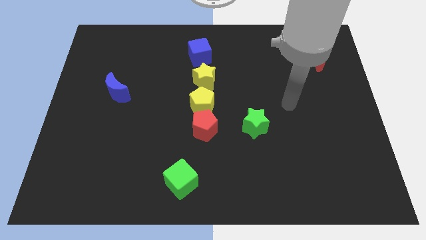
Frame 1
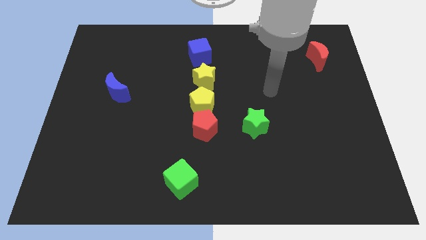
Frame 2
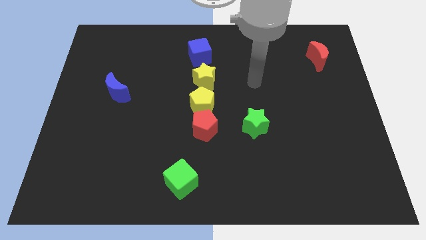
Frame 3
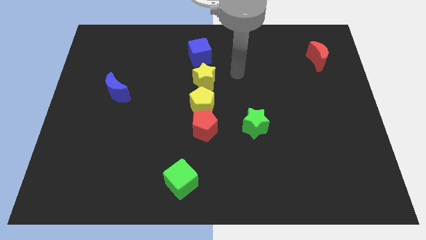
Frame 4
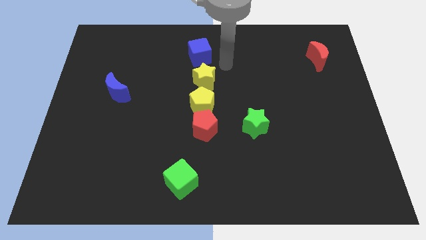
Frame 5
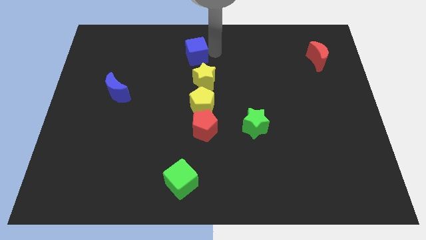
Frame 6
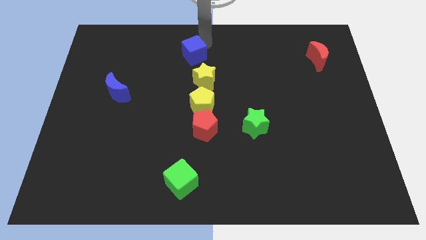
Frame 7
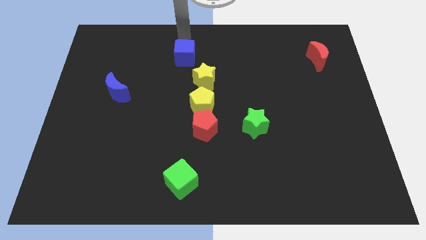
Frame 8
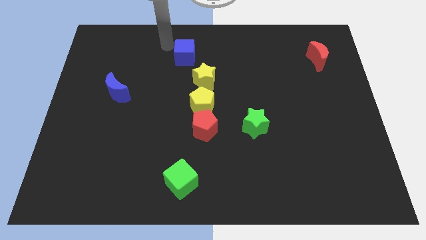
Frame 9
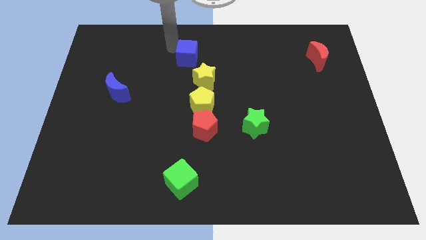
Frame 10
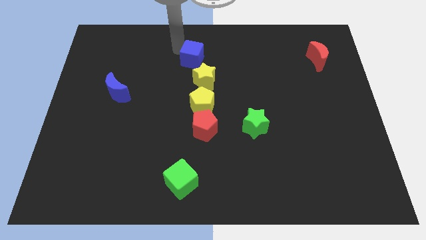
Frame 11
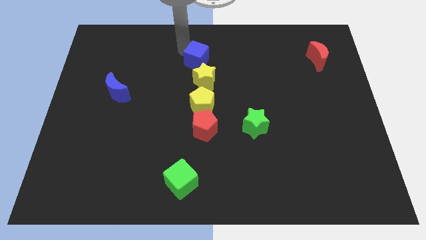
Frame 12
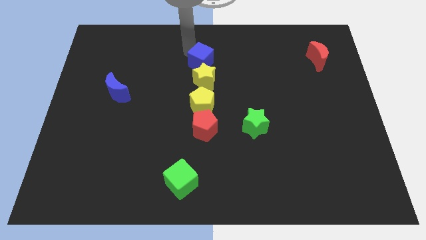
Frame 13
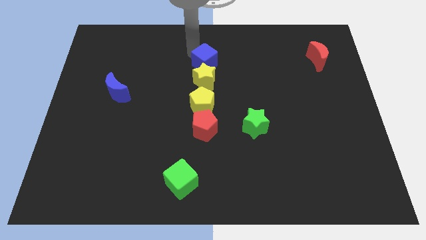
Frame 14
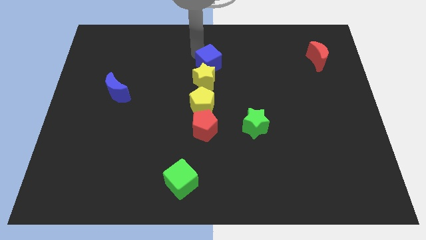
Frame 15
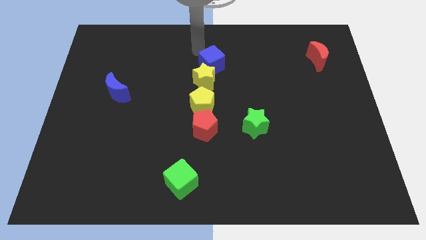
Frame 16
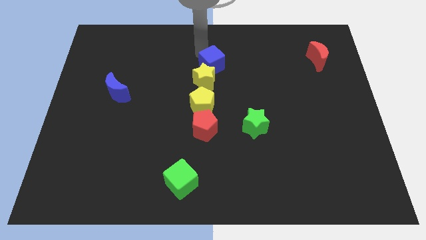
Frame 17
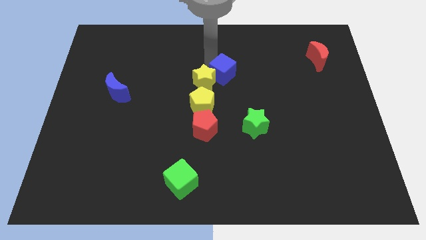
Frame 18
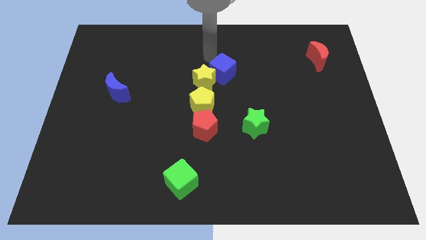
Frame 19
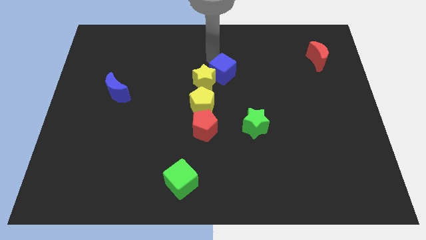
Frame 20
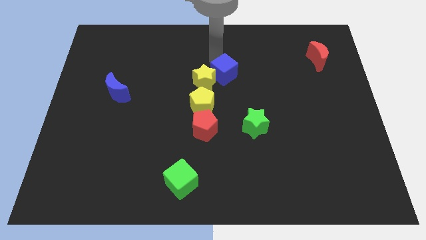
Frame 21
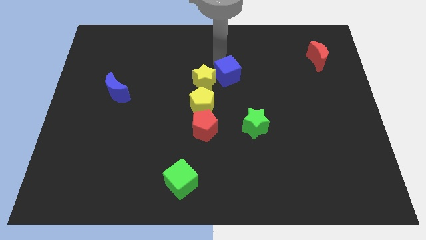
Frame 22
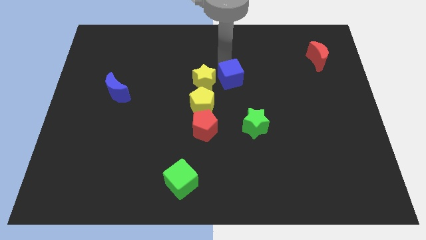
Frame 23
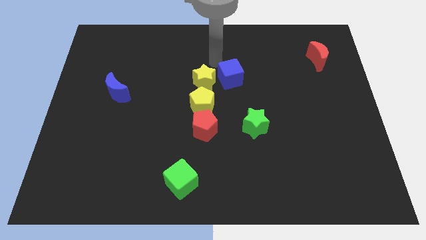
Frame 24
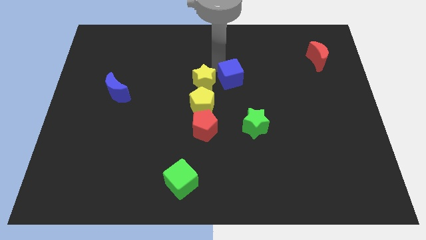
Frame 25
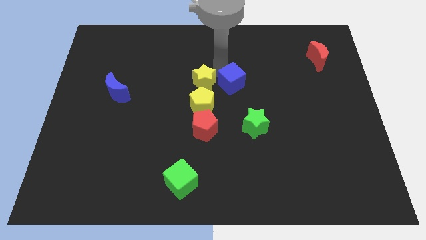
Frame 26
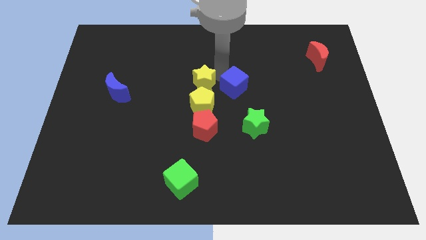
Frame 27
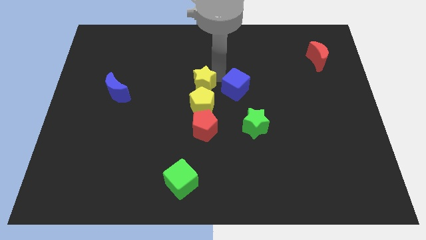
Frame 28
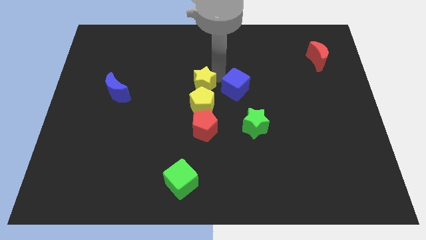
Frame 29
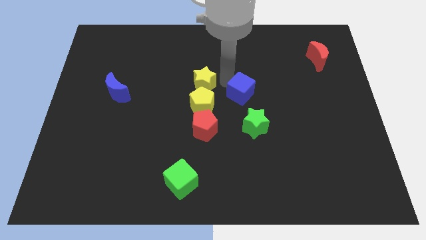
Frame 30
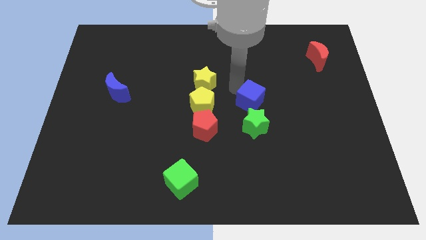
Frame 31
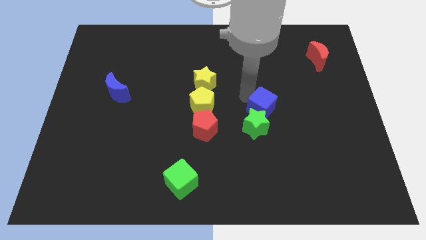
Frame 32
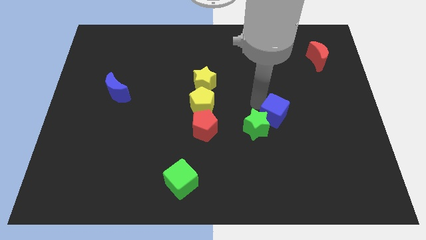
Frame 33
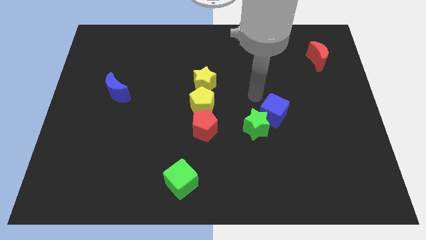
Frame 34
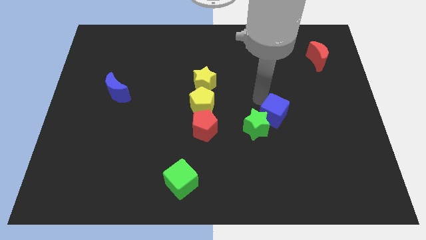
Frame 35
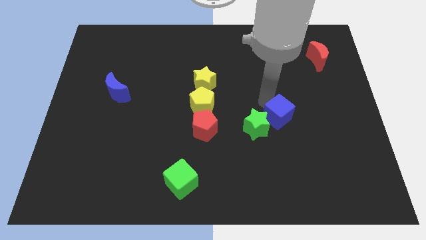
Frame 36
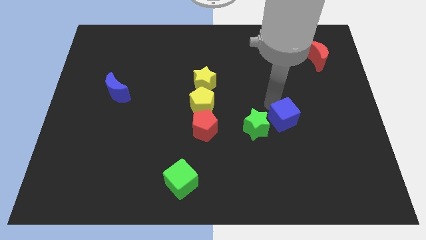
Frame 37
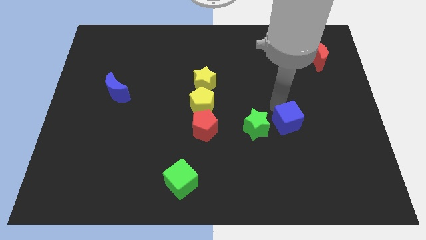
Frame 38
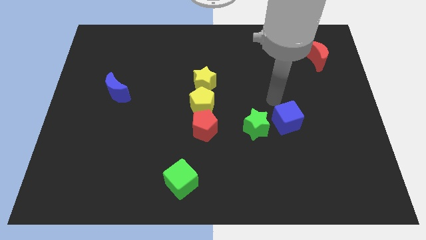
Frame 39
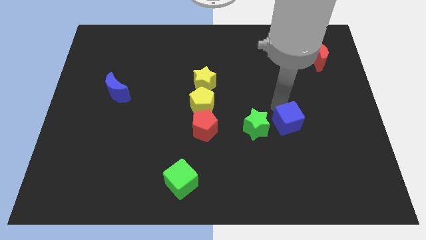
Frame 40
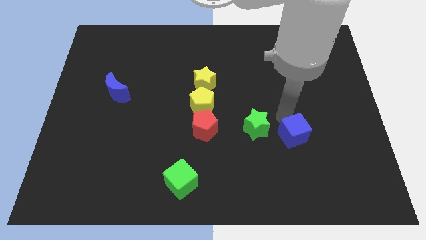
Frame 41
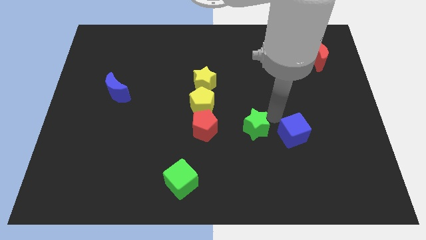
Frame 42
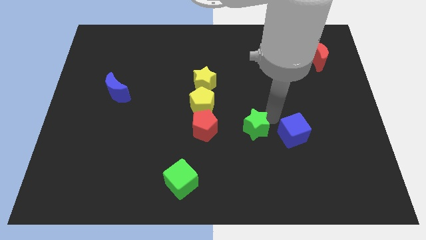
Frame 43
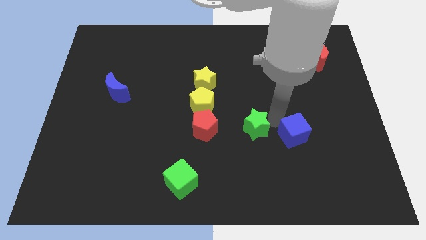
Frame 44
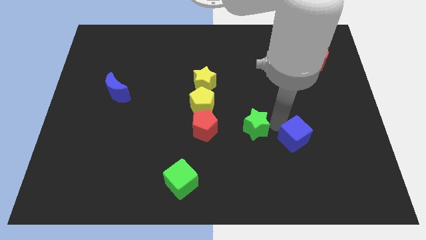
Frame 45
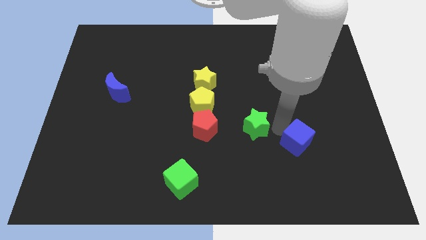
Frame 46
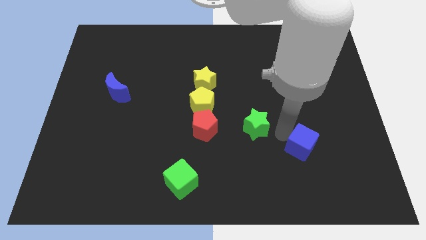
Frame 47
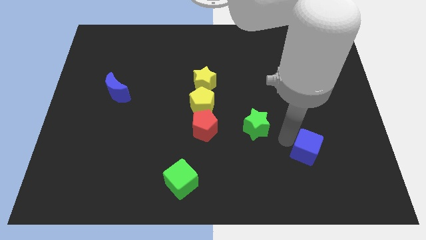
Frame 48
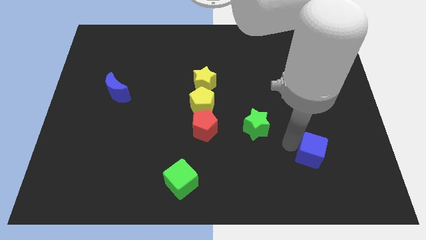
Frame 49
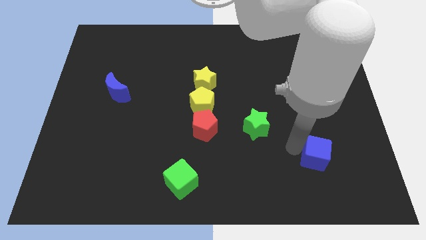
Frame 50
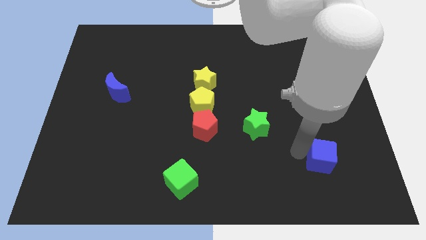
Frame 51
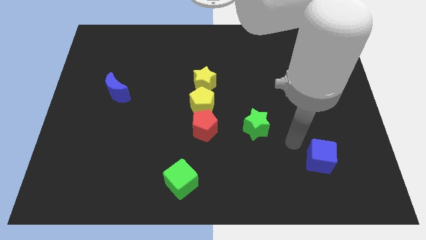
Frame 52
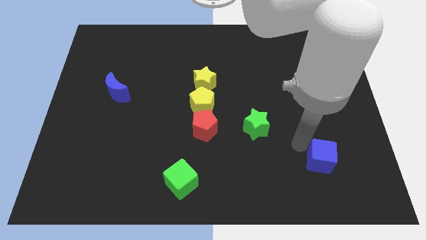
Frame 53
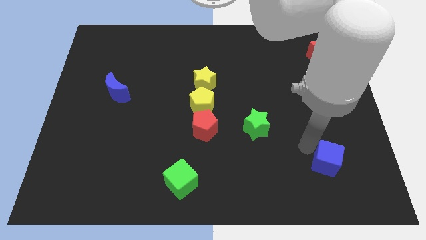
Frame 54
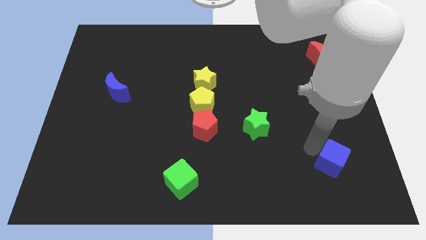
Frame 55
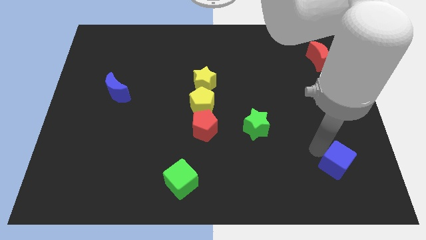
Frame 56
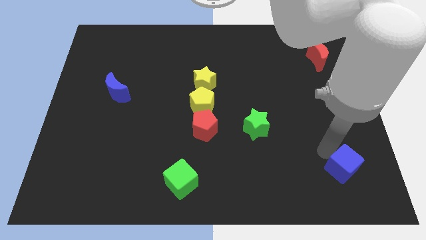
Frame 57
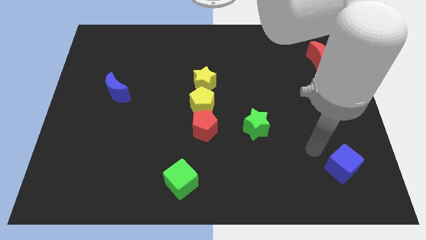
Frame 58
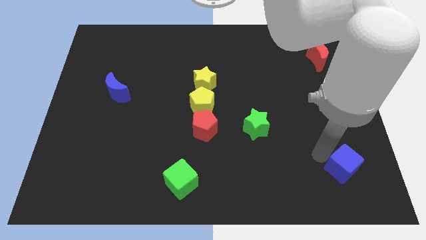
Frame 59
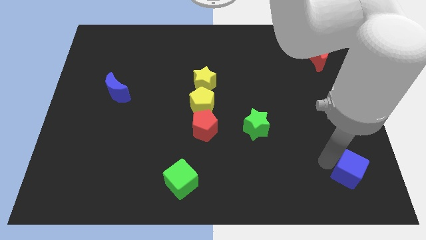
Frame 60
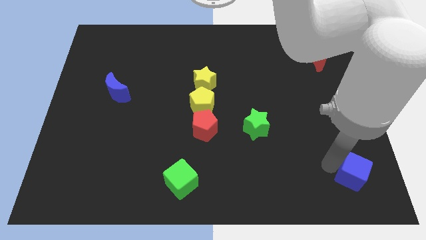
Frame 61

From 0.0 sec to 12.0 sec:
push the blue cube to the bottom right
